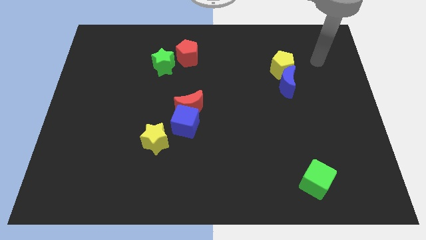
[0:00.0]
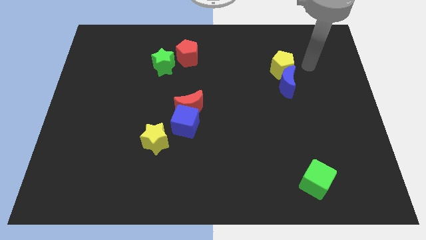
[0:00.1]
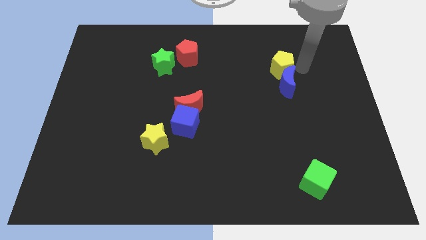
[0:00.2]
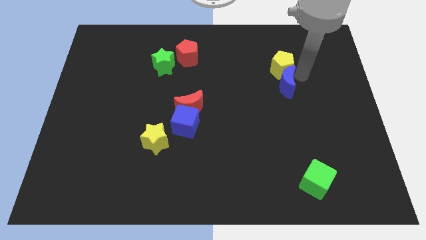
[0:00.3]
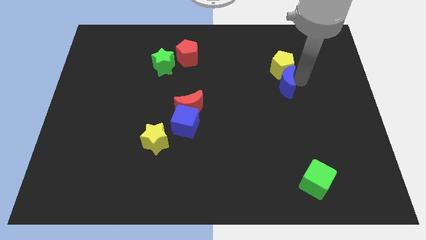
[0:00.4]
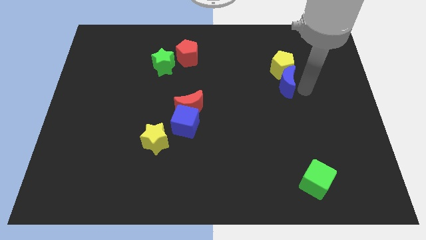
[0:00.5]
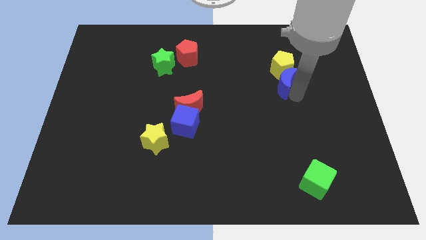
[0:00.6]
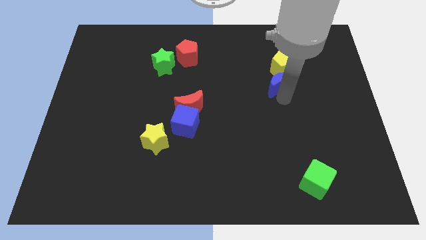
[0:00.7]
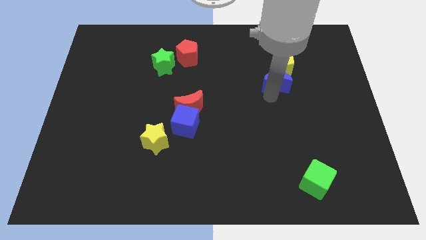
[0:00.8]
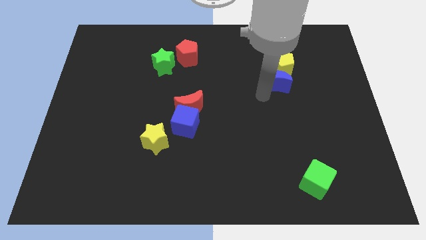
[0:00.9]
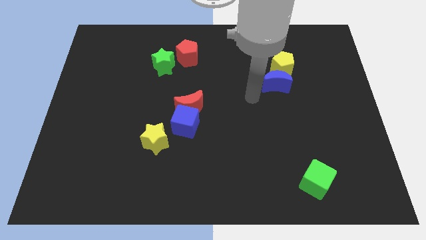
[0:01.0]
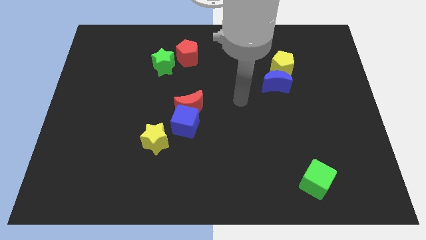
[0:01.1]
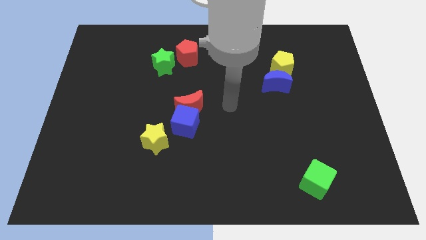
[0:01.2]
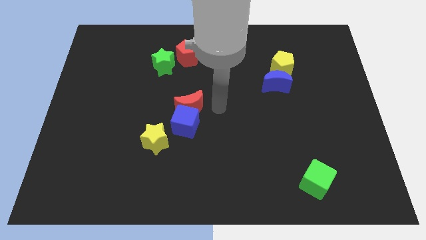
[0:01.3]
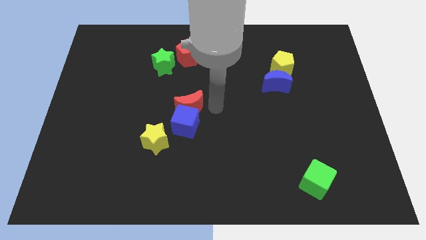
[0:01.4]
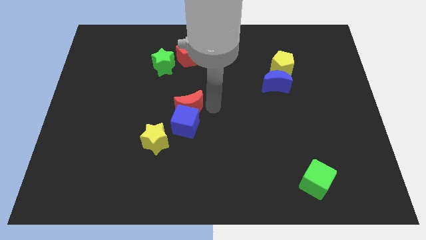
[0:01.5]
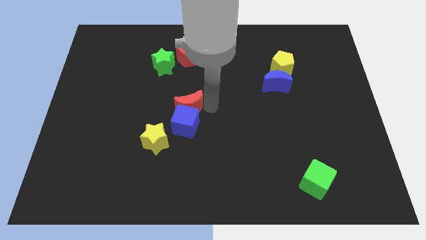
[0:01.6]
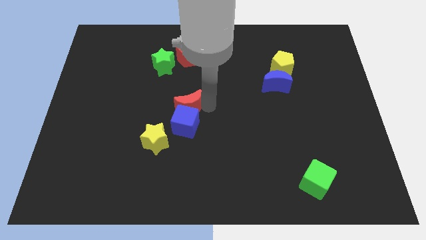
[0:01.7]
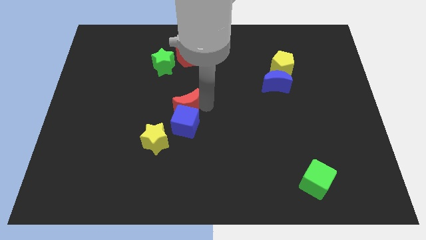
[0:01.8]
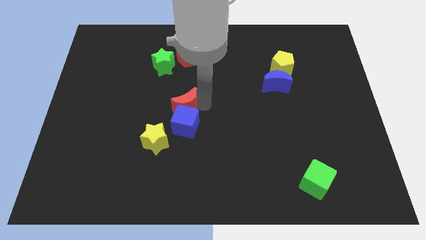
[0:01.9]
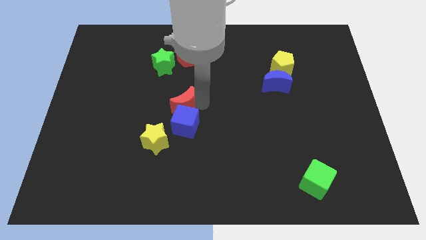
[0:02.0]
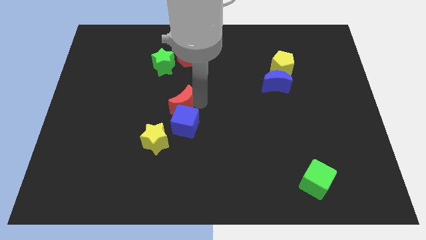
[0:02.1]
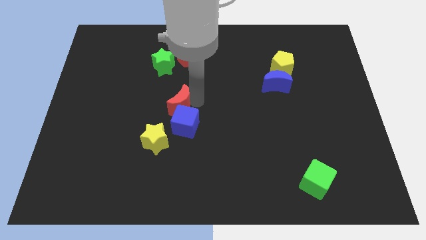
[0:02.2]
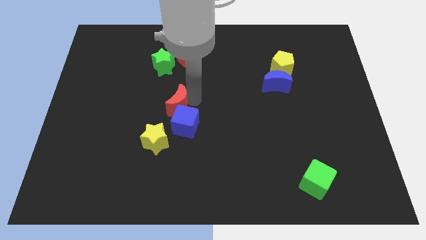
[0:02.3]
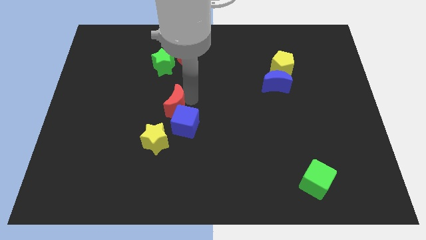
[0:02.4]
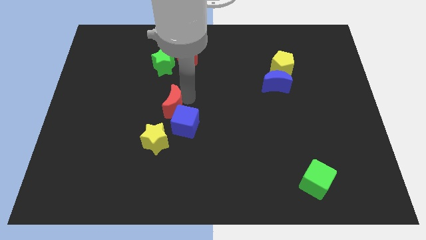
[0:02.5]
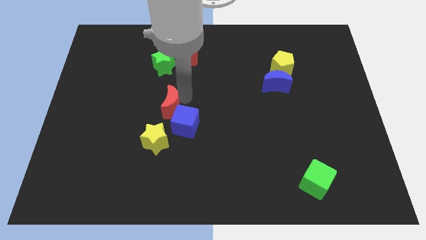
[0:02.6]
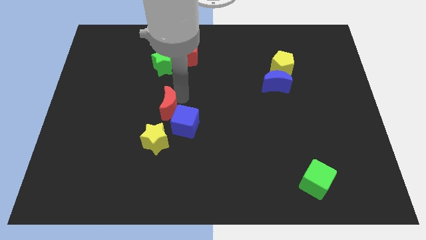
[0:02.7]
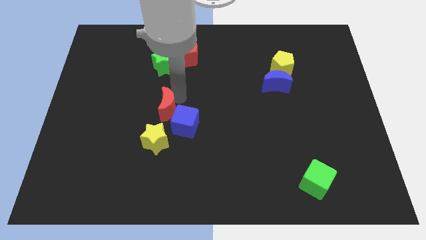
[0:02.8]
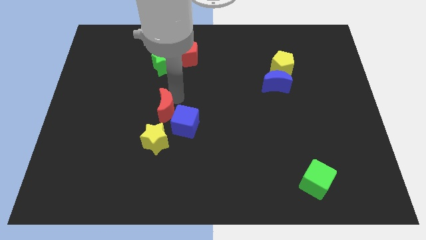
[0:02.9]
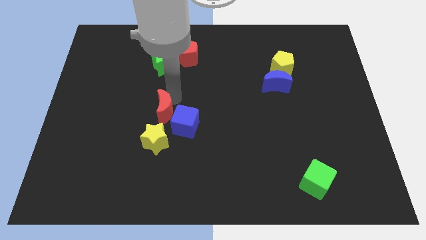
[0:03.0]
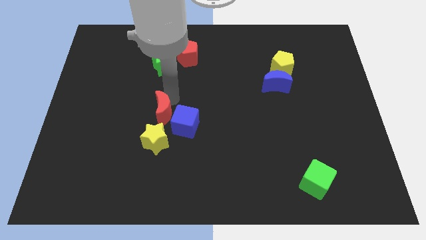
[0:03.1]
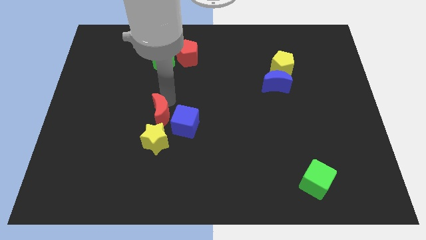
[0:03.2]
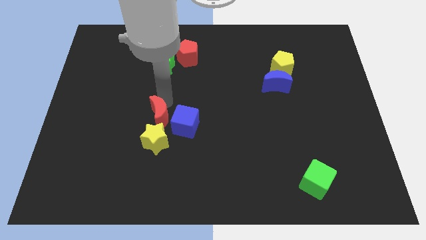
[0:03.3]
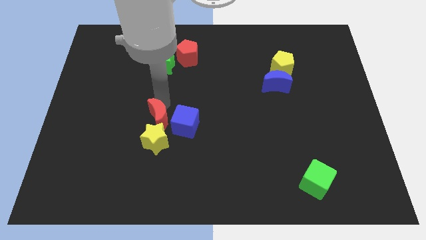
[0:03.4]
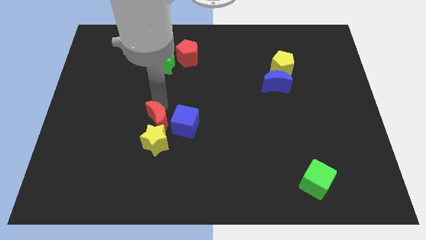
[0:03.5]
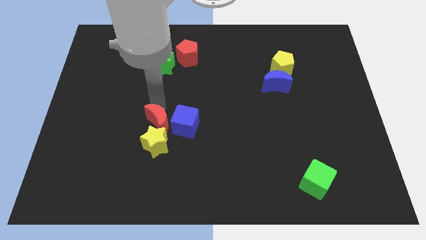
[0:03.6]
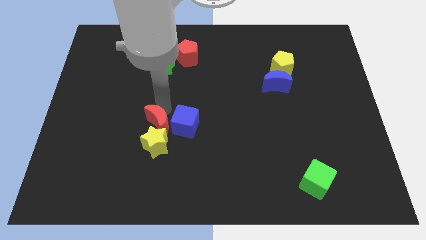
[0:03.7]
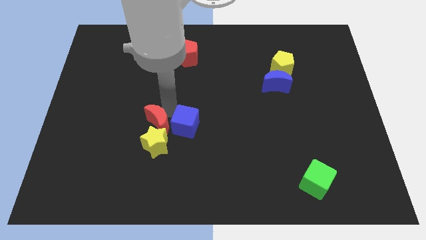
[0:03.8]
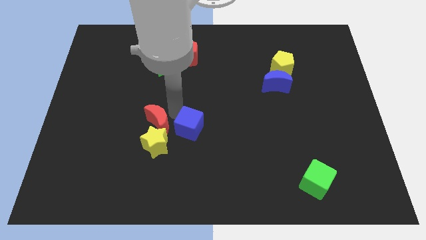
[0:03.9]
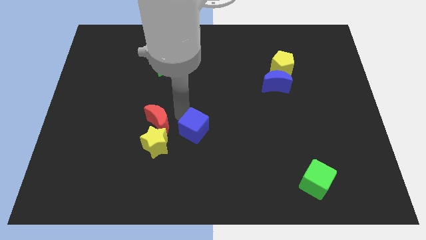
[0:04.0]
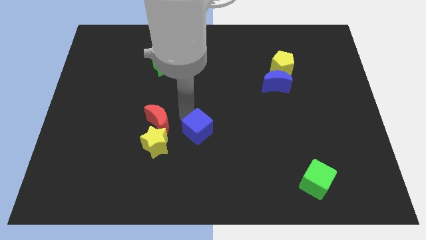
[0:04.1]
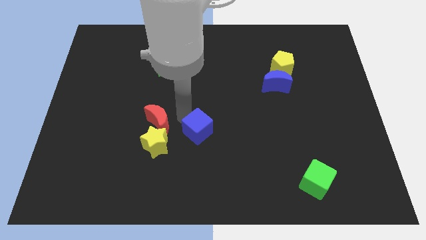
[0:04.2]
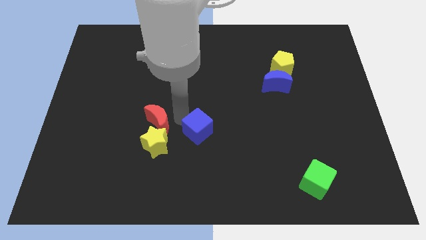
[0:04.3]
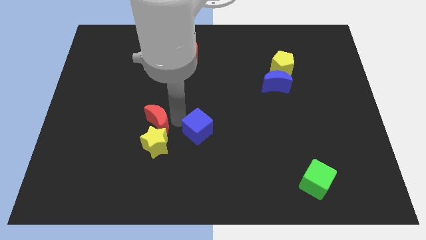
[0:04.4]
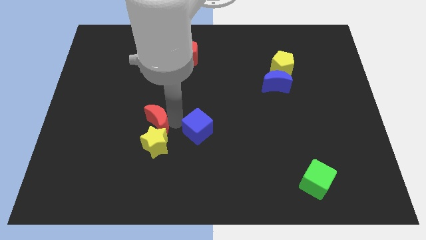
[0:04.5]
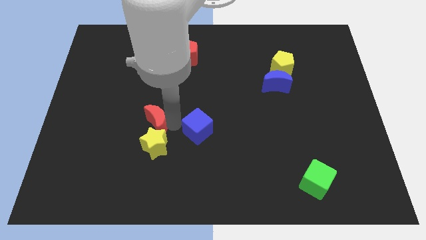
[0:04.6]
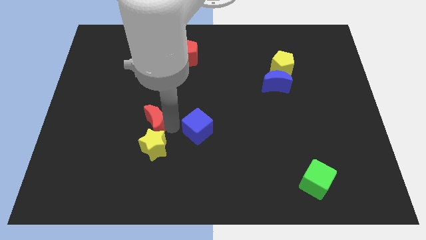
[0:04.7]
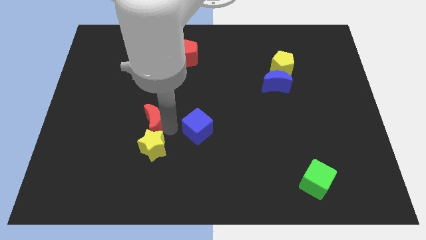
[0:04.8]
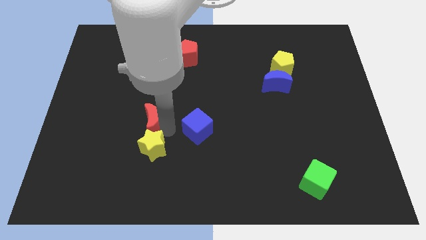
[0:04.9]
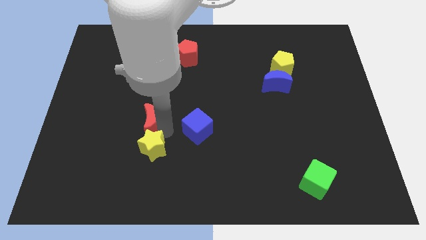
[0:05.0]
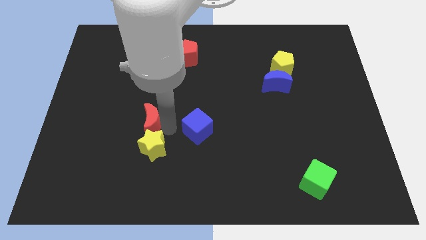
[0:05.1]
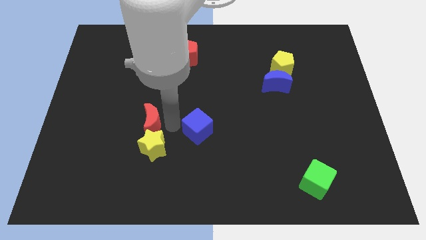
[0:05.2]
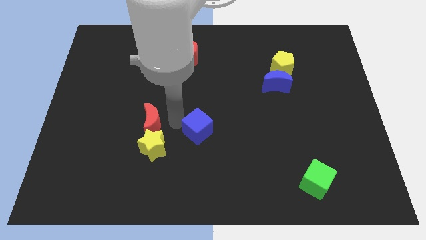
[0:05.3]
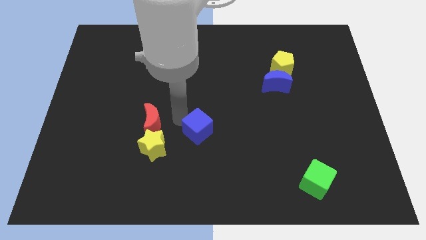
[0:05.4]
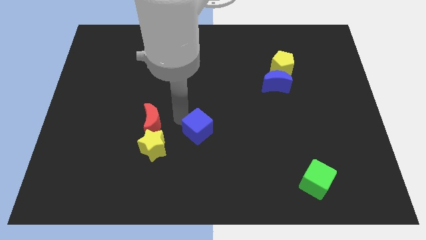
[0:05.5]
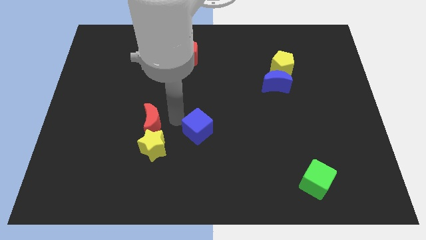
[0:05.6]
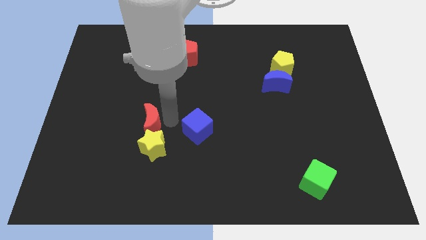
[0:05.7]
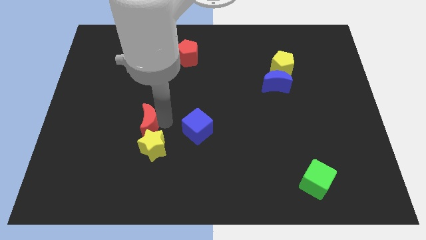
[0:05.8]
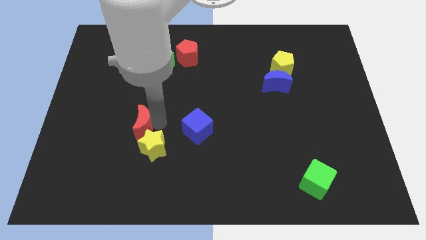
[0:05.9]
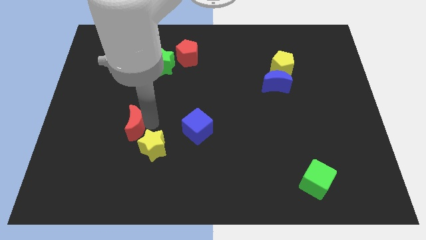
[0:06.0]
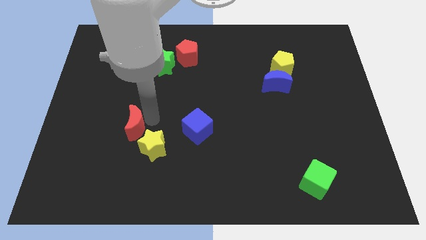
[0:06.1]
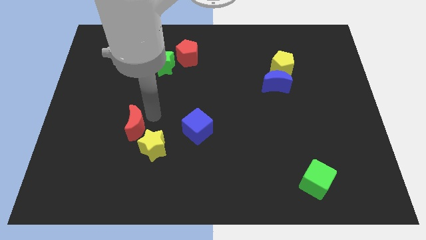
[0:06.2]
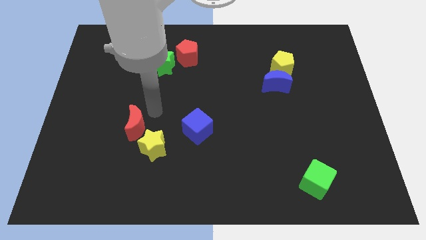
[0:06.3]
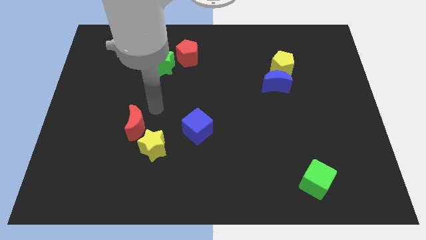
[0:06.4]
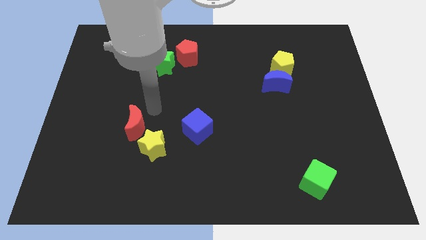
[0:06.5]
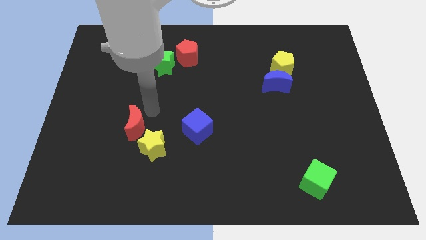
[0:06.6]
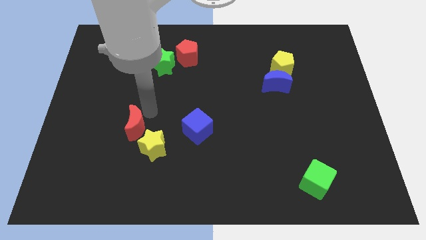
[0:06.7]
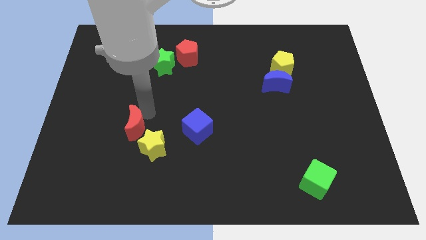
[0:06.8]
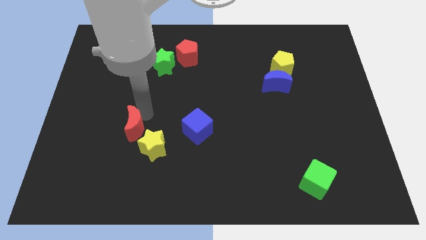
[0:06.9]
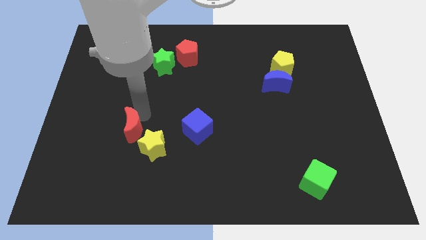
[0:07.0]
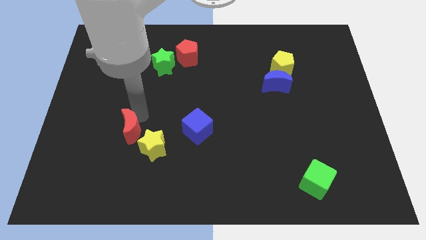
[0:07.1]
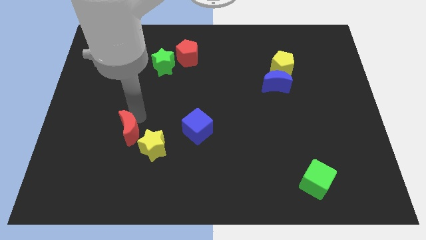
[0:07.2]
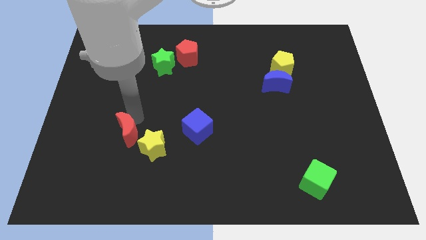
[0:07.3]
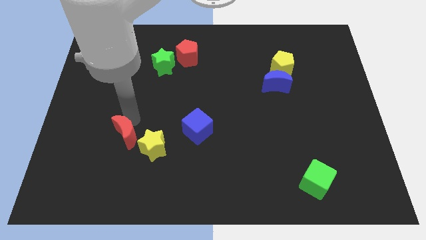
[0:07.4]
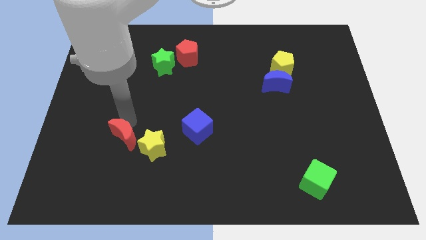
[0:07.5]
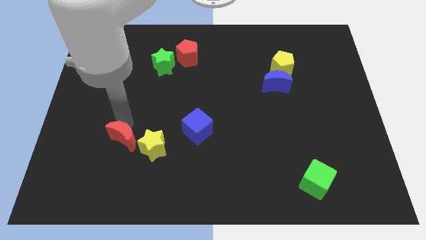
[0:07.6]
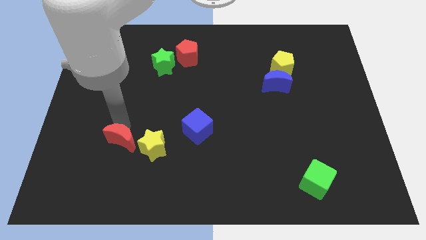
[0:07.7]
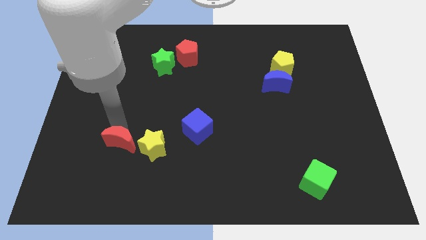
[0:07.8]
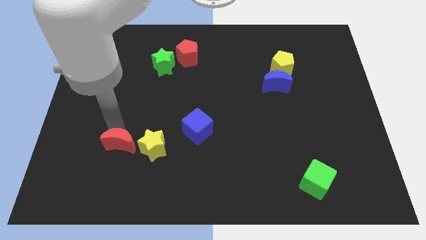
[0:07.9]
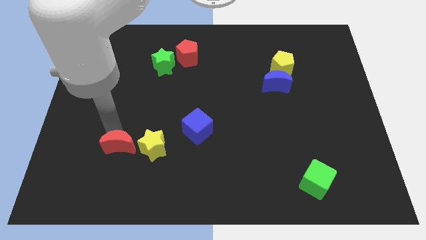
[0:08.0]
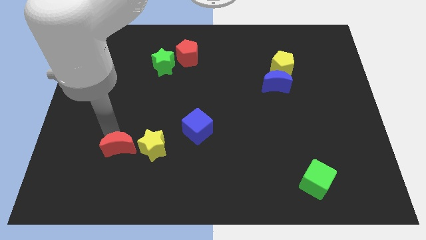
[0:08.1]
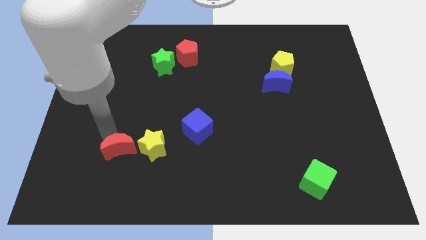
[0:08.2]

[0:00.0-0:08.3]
move the red moon diagonally down and to the left of the yellow star
